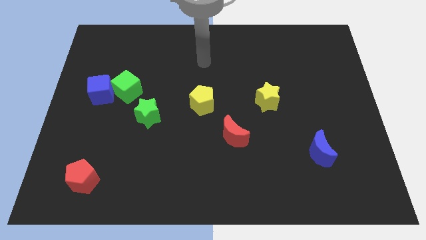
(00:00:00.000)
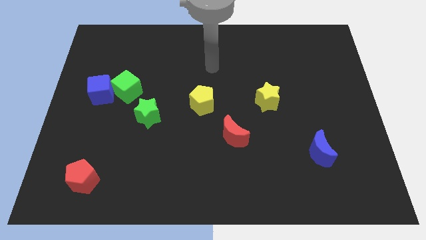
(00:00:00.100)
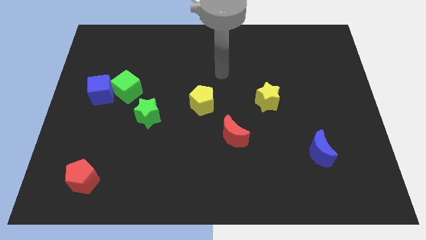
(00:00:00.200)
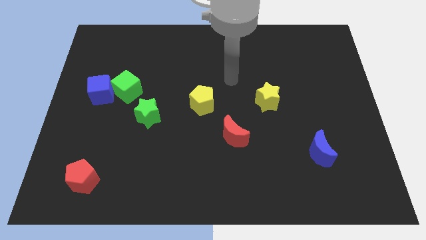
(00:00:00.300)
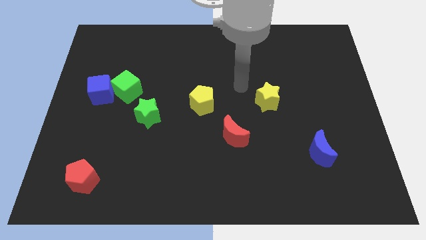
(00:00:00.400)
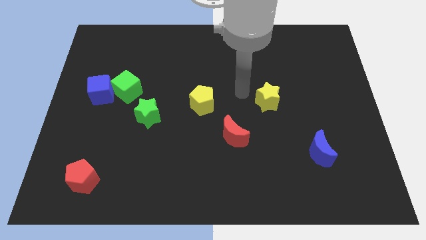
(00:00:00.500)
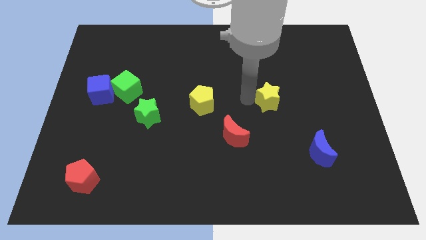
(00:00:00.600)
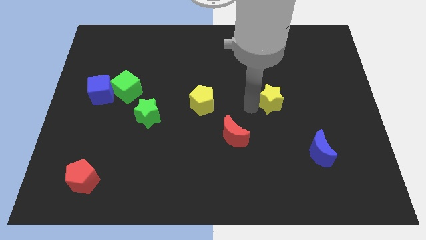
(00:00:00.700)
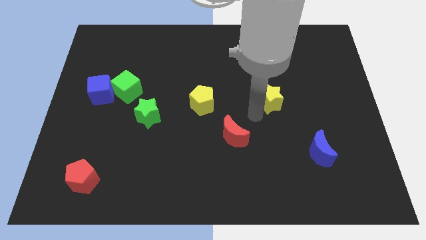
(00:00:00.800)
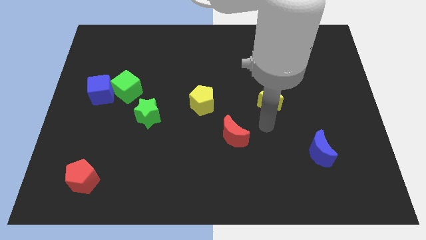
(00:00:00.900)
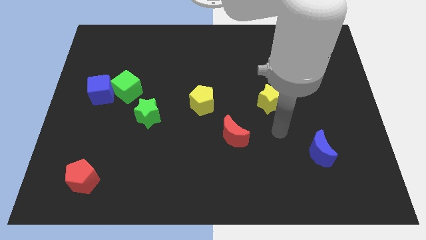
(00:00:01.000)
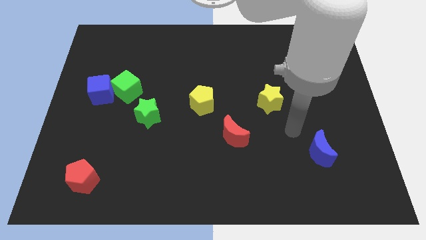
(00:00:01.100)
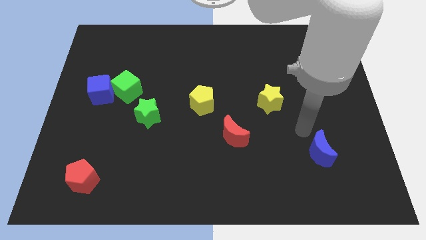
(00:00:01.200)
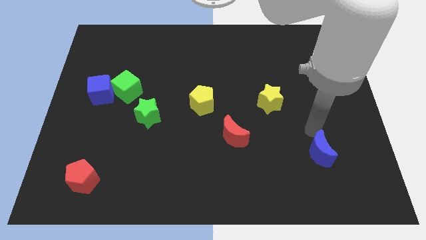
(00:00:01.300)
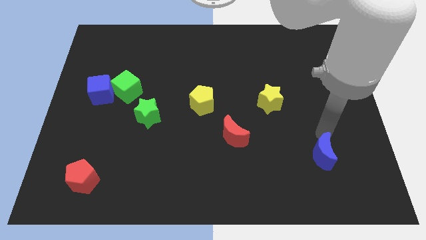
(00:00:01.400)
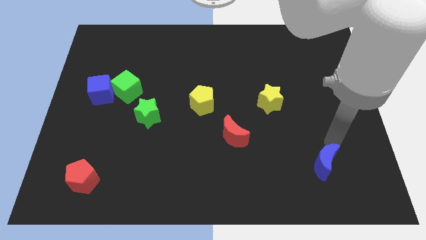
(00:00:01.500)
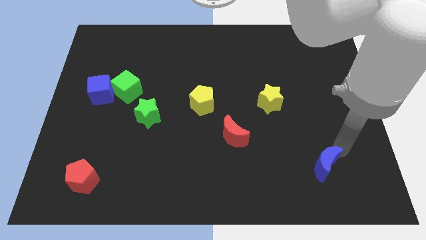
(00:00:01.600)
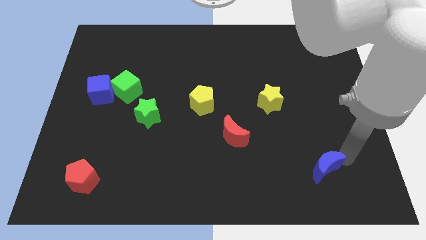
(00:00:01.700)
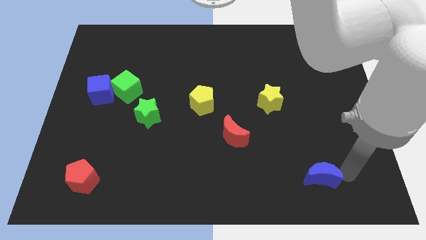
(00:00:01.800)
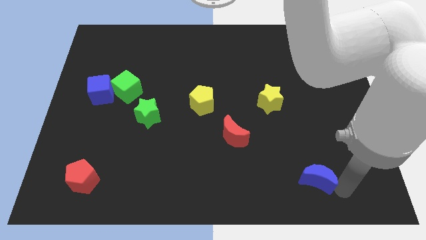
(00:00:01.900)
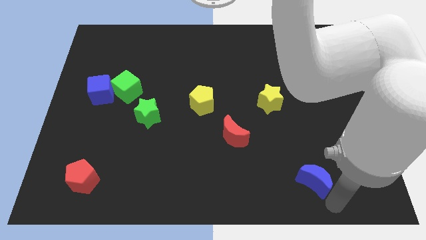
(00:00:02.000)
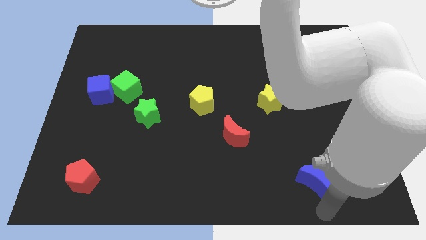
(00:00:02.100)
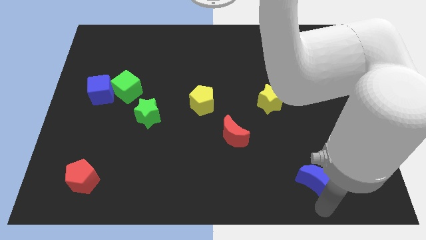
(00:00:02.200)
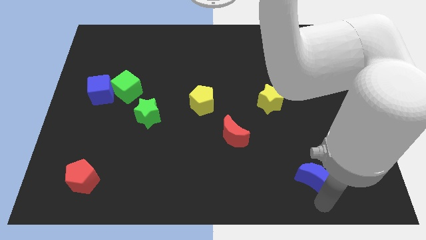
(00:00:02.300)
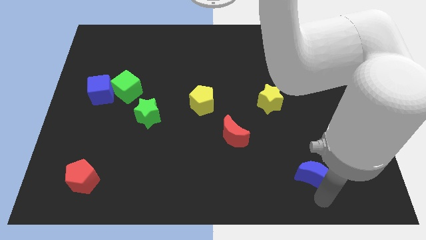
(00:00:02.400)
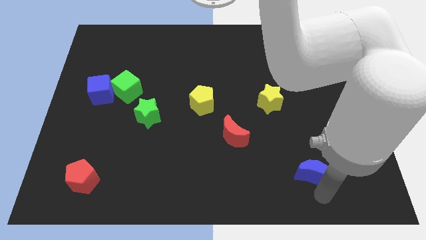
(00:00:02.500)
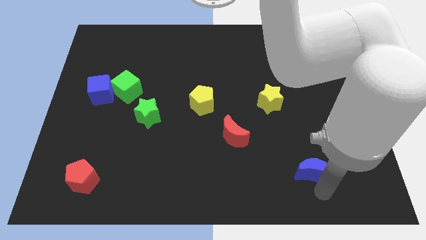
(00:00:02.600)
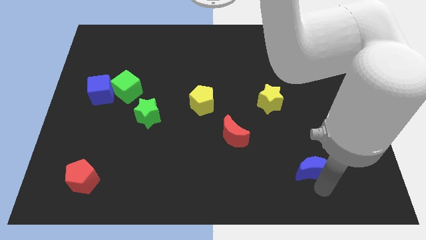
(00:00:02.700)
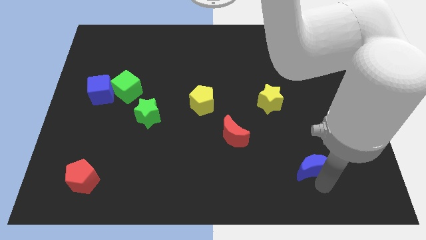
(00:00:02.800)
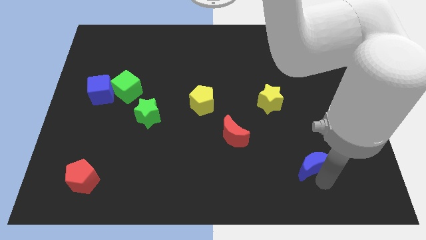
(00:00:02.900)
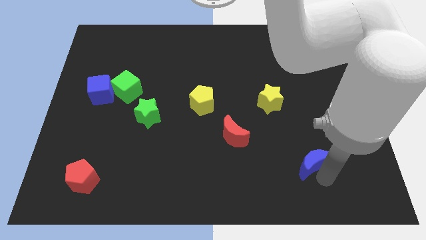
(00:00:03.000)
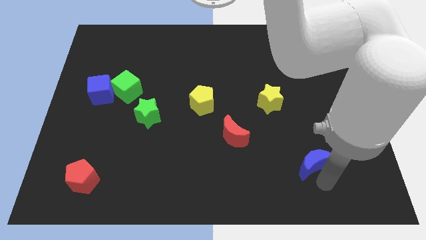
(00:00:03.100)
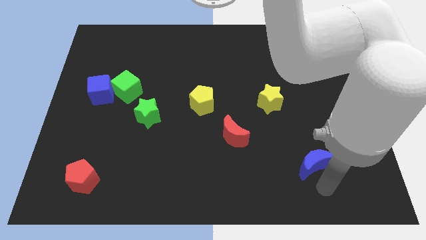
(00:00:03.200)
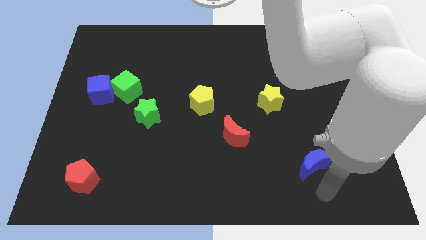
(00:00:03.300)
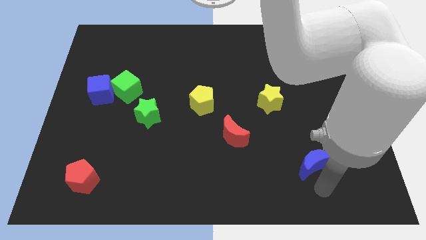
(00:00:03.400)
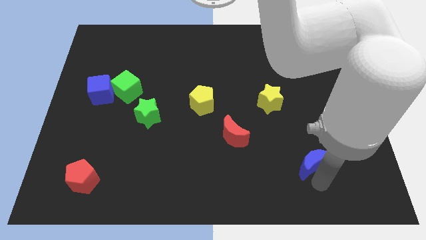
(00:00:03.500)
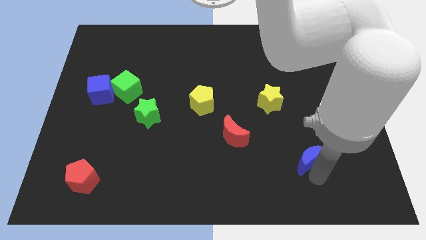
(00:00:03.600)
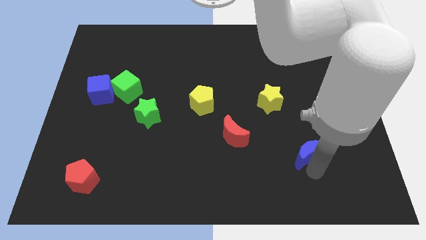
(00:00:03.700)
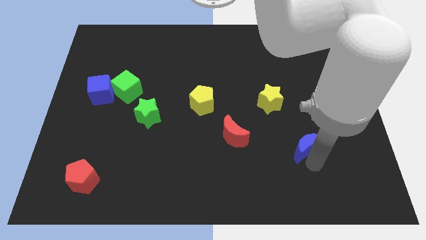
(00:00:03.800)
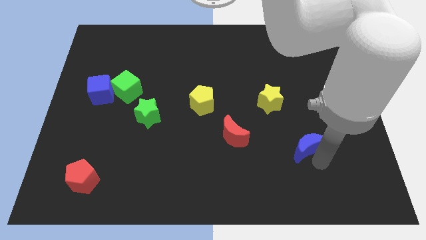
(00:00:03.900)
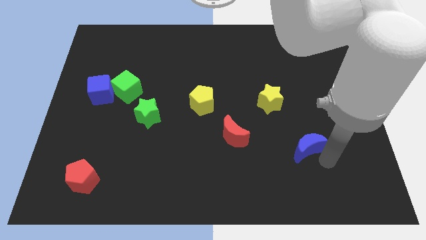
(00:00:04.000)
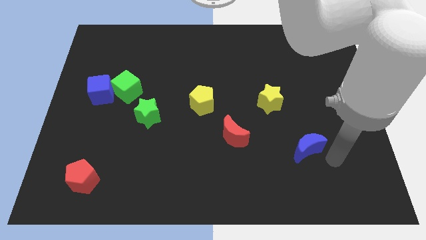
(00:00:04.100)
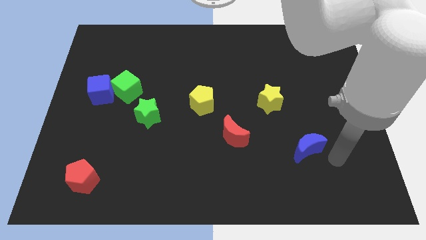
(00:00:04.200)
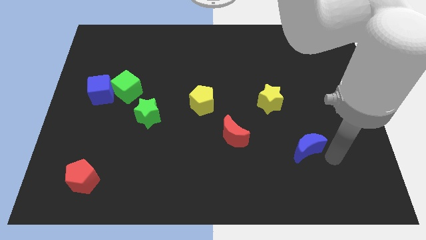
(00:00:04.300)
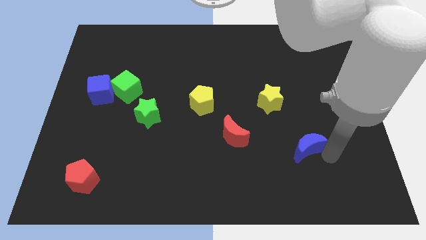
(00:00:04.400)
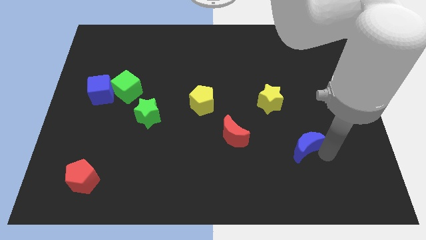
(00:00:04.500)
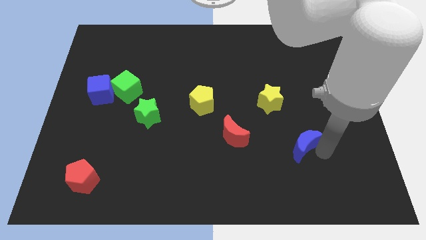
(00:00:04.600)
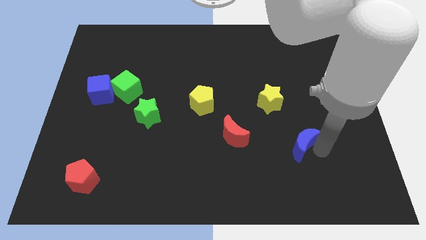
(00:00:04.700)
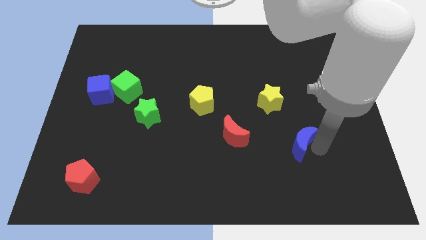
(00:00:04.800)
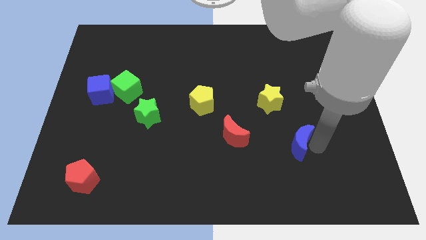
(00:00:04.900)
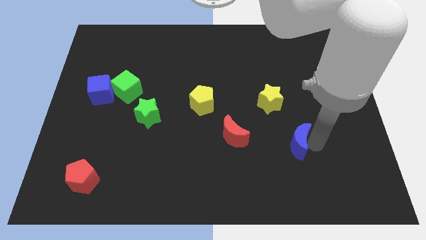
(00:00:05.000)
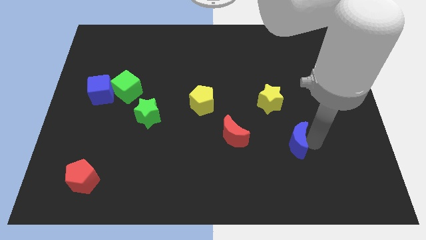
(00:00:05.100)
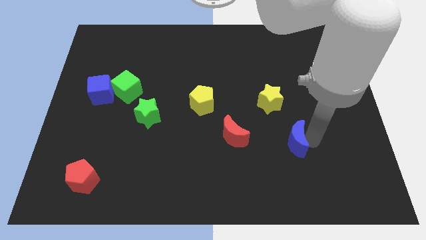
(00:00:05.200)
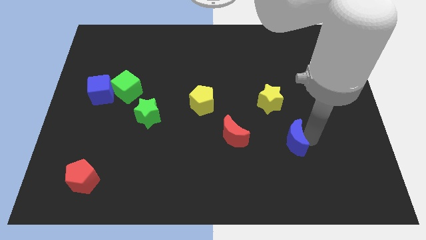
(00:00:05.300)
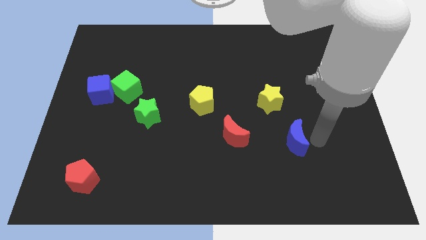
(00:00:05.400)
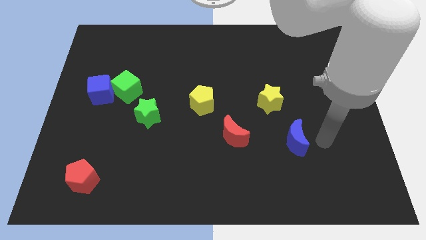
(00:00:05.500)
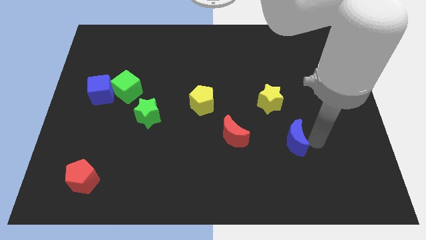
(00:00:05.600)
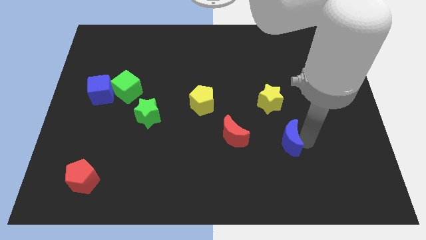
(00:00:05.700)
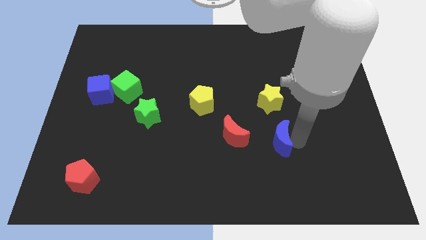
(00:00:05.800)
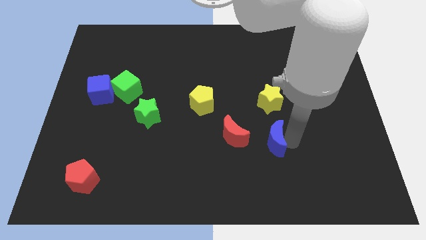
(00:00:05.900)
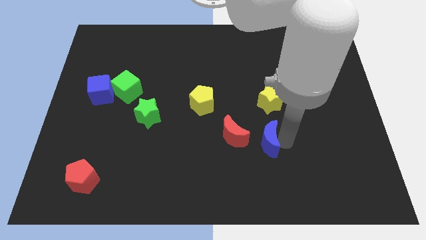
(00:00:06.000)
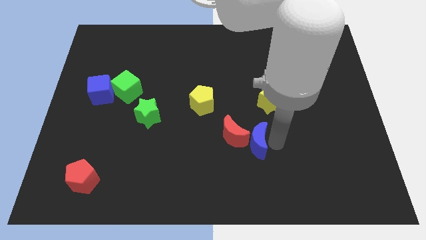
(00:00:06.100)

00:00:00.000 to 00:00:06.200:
slide the blue moon next to the red moon
